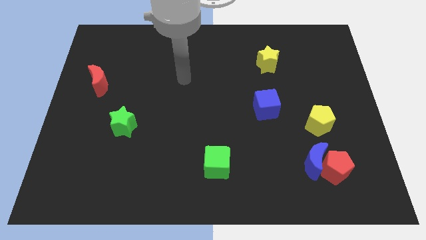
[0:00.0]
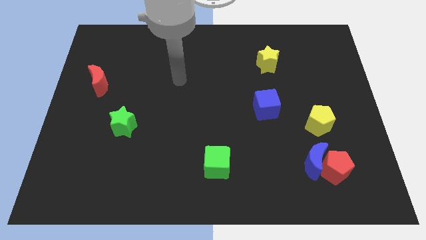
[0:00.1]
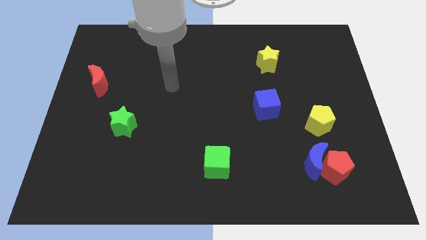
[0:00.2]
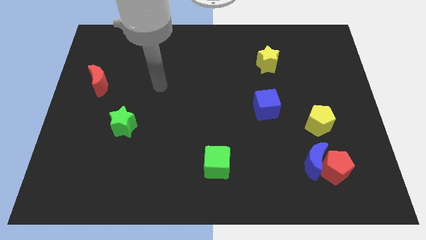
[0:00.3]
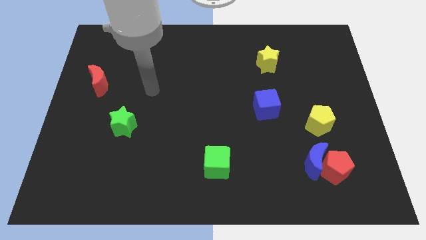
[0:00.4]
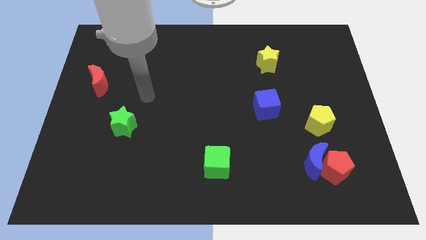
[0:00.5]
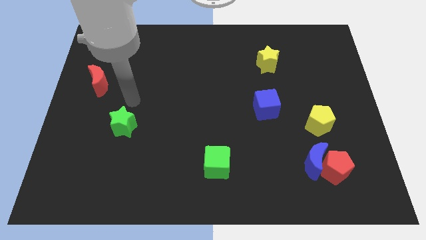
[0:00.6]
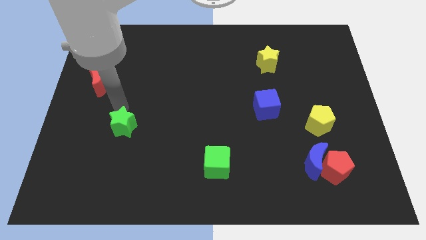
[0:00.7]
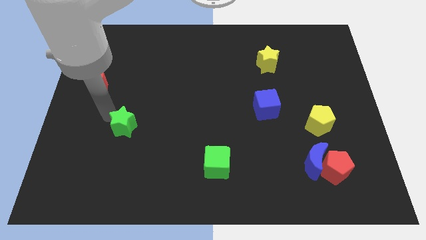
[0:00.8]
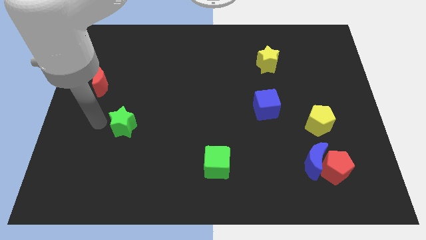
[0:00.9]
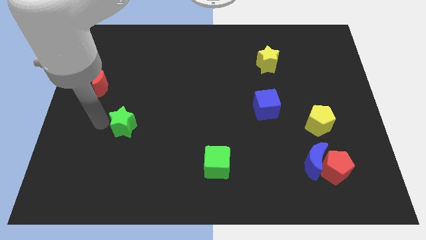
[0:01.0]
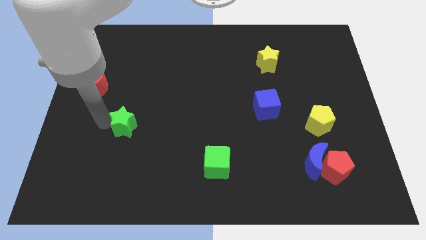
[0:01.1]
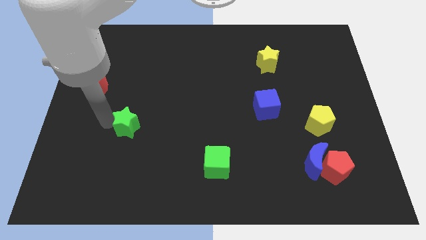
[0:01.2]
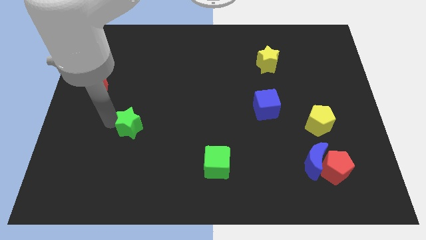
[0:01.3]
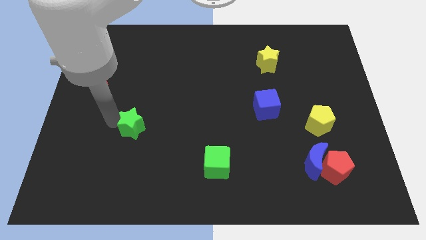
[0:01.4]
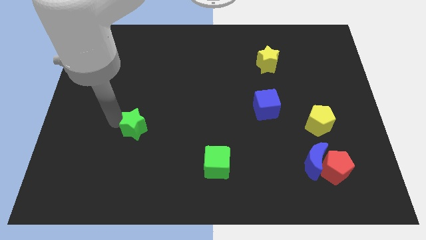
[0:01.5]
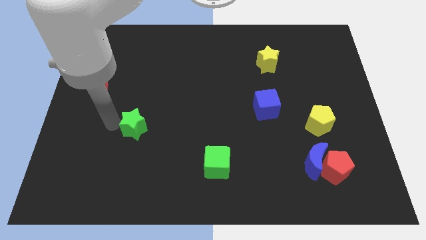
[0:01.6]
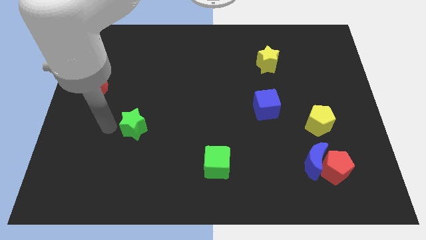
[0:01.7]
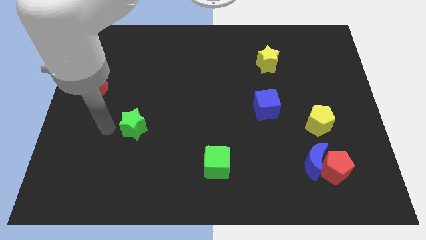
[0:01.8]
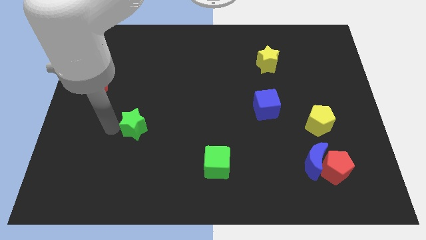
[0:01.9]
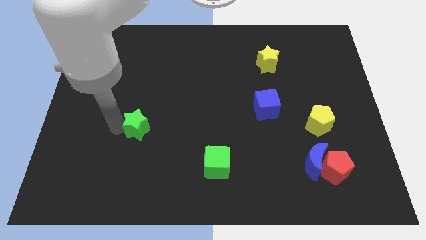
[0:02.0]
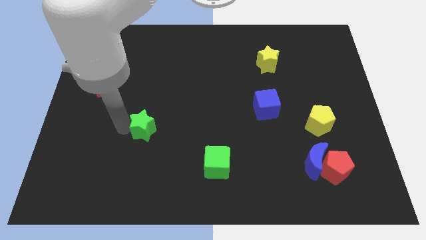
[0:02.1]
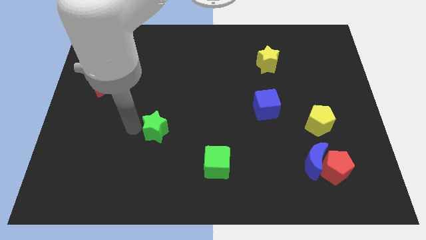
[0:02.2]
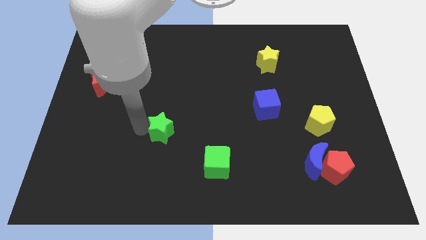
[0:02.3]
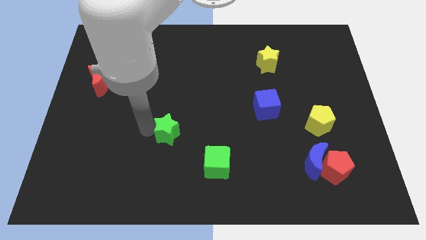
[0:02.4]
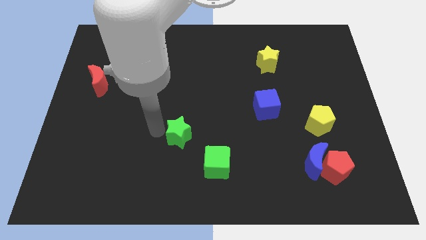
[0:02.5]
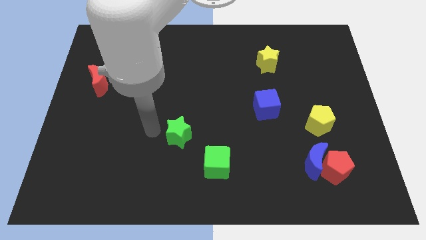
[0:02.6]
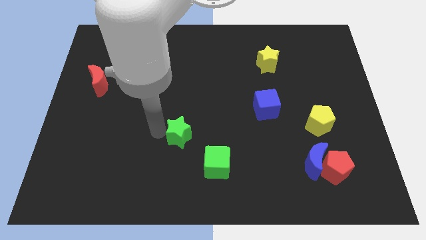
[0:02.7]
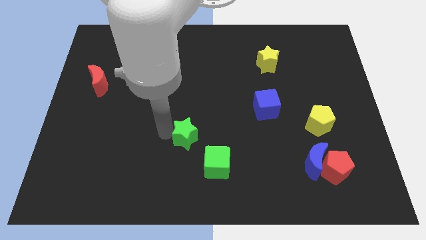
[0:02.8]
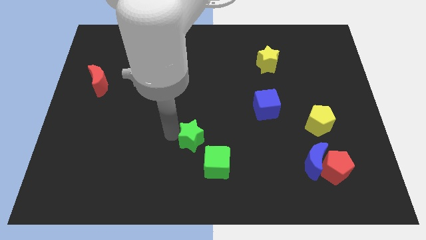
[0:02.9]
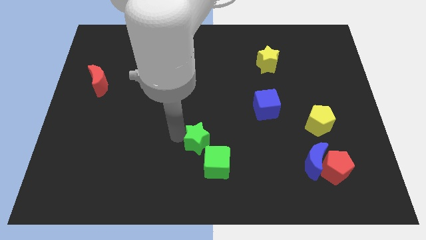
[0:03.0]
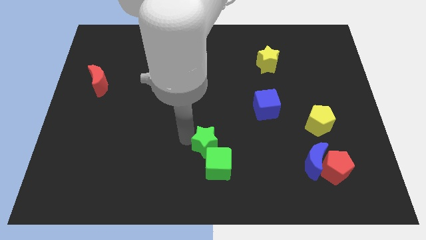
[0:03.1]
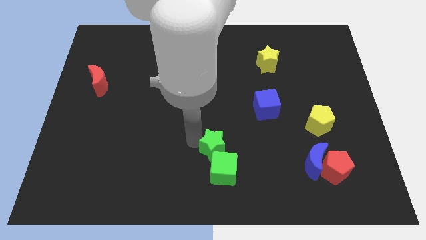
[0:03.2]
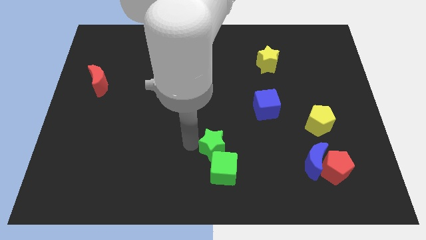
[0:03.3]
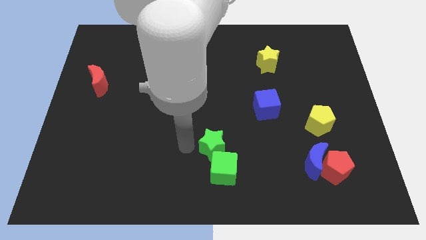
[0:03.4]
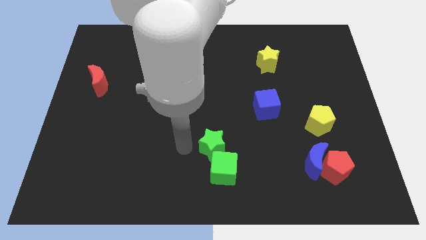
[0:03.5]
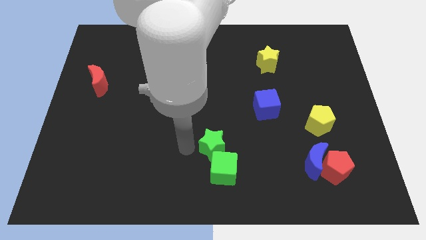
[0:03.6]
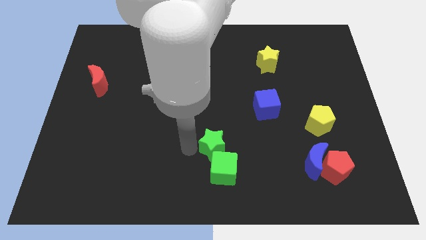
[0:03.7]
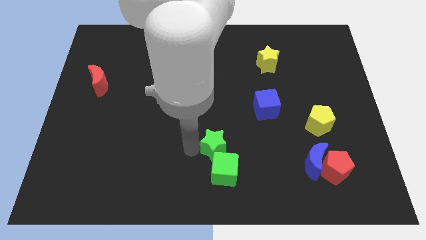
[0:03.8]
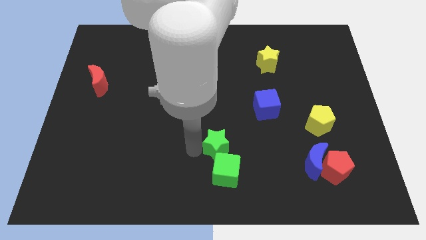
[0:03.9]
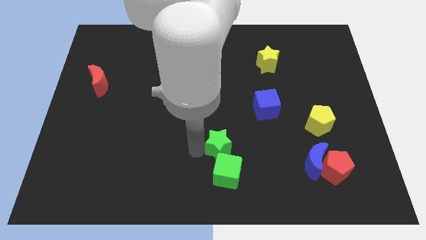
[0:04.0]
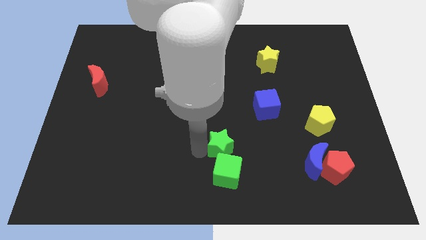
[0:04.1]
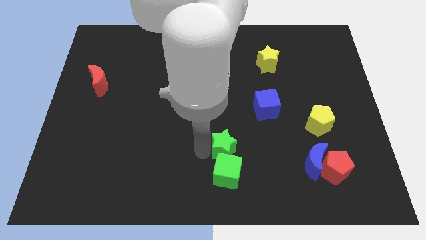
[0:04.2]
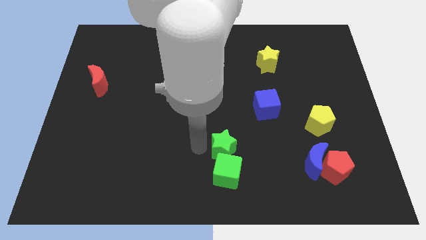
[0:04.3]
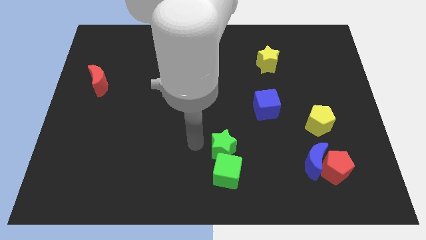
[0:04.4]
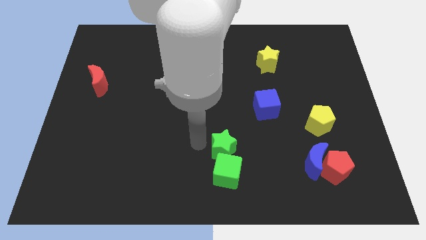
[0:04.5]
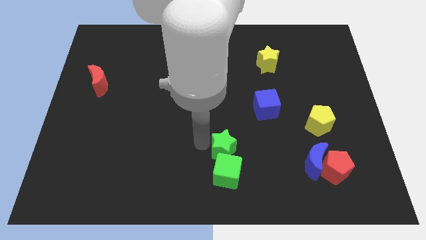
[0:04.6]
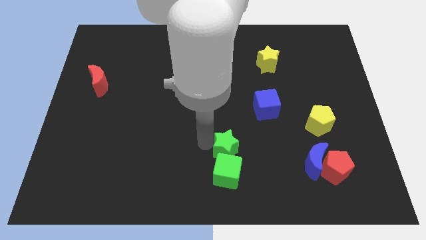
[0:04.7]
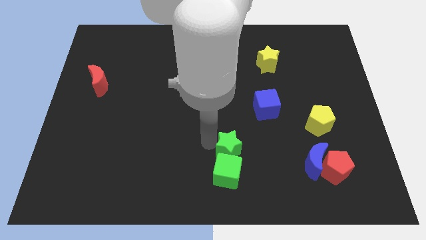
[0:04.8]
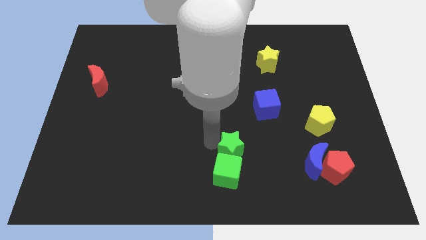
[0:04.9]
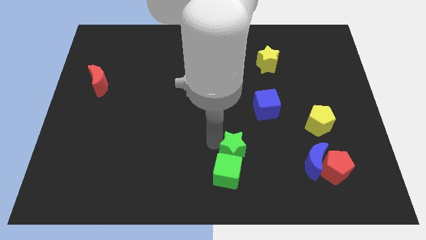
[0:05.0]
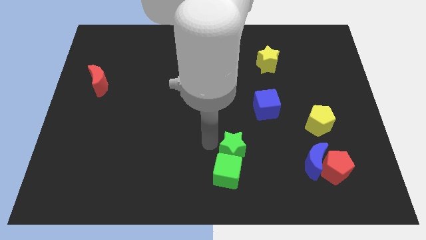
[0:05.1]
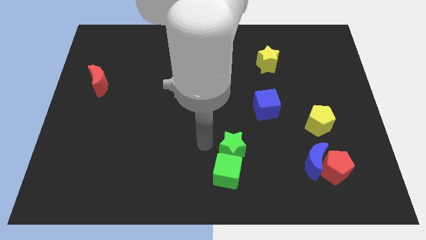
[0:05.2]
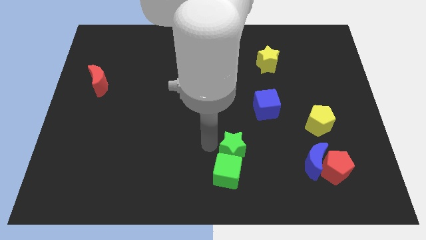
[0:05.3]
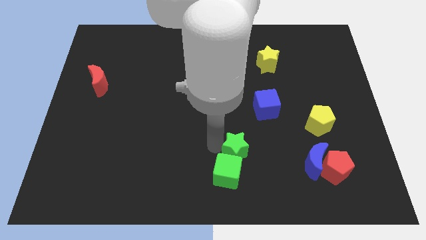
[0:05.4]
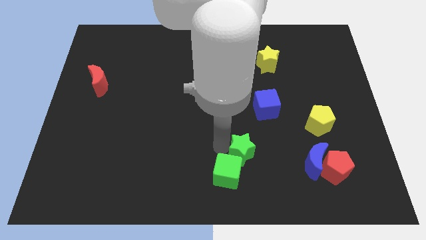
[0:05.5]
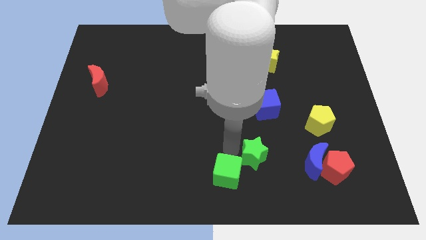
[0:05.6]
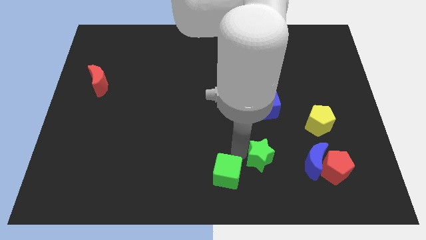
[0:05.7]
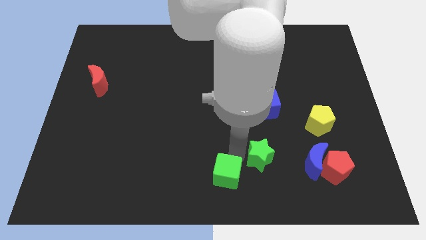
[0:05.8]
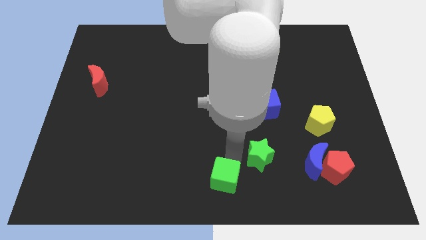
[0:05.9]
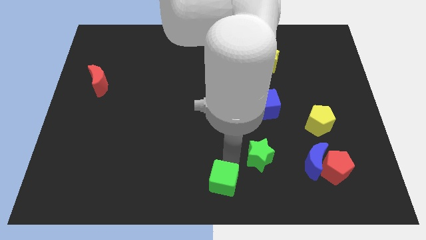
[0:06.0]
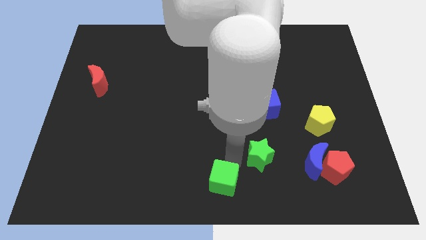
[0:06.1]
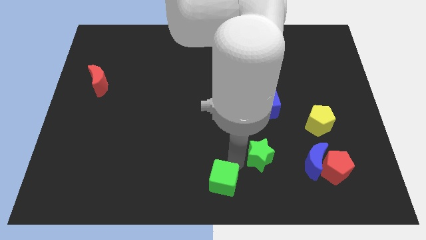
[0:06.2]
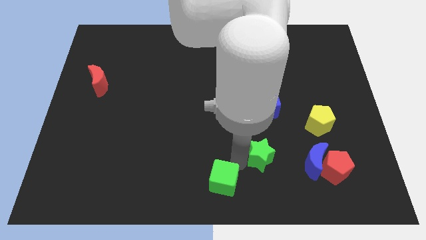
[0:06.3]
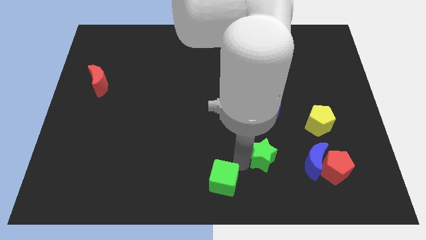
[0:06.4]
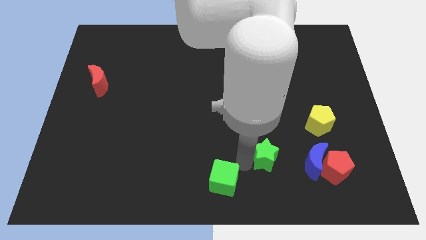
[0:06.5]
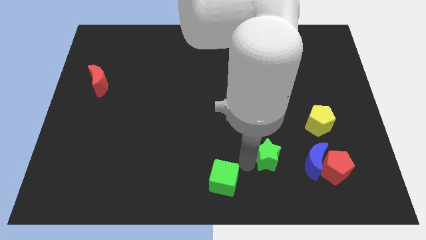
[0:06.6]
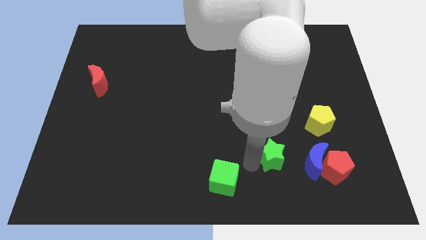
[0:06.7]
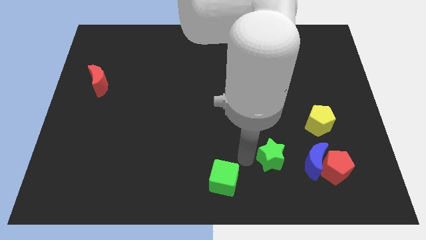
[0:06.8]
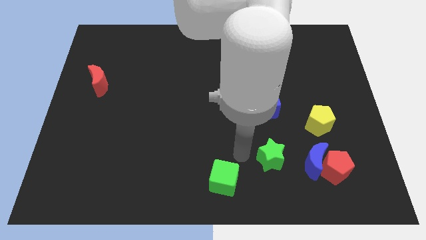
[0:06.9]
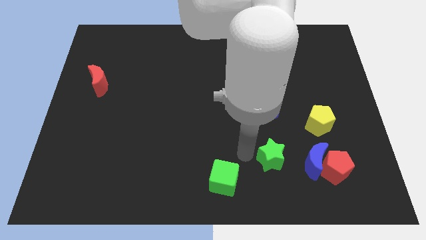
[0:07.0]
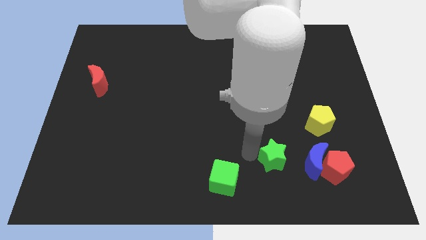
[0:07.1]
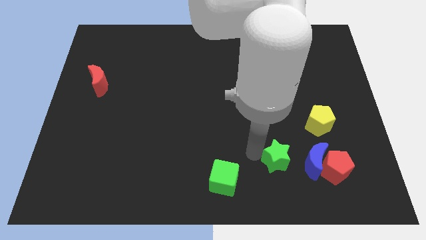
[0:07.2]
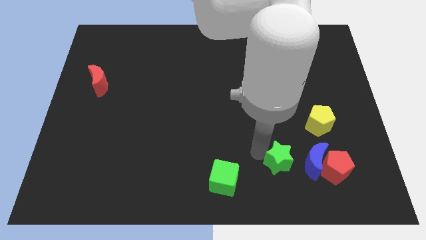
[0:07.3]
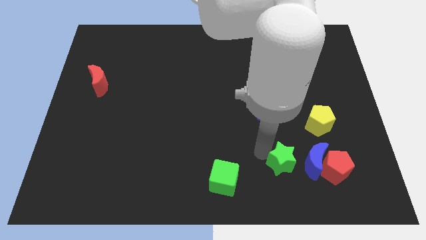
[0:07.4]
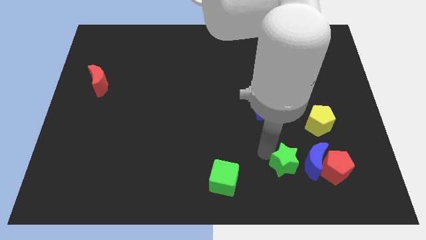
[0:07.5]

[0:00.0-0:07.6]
move the green star close to the blue moon
